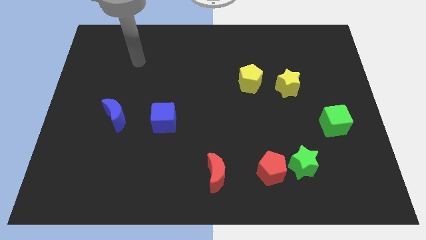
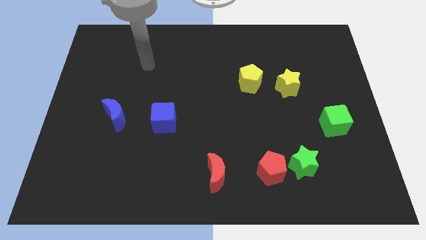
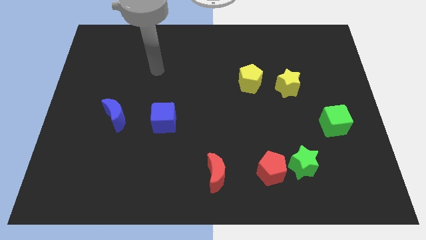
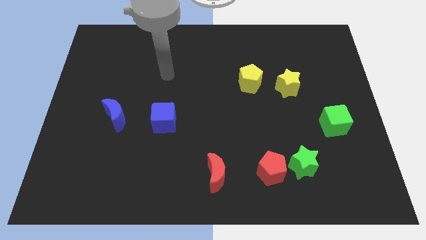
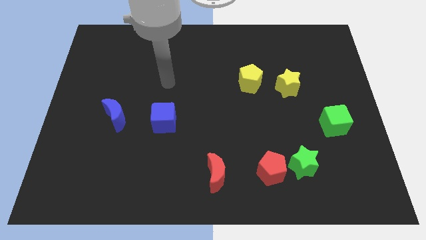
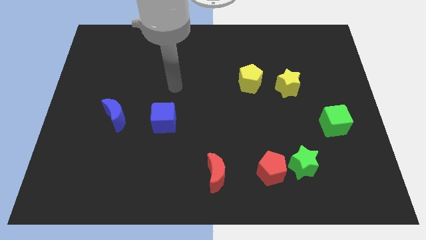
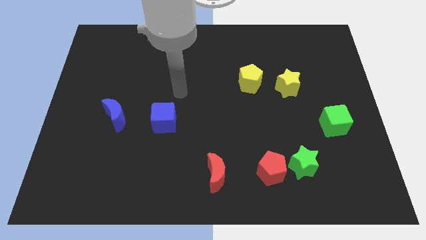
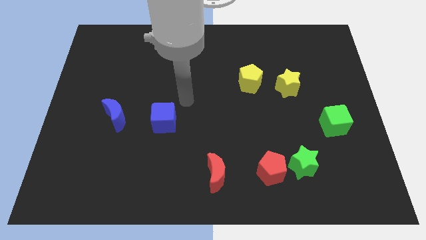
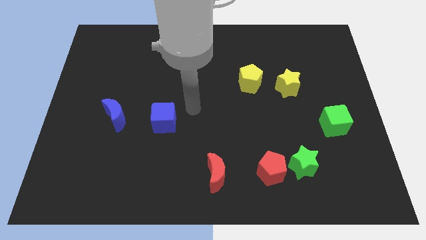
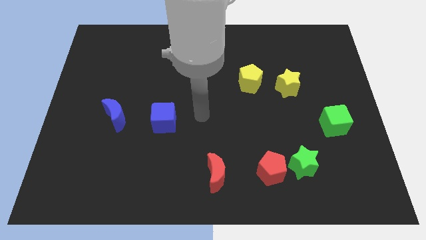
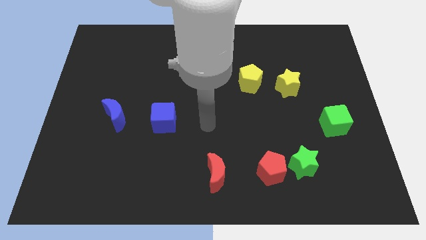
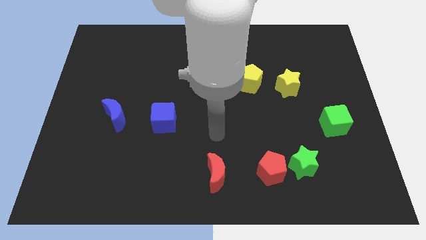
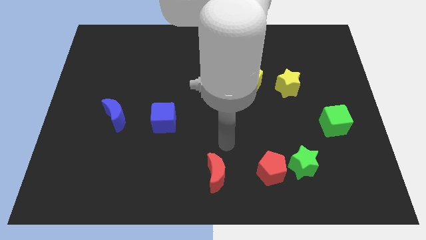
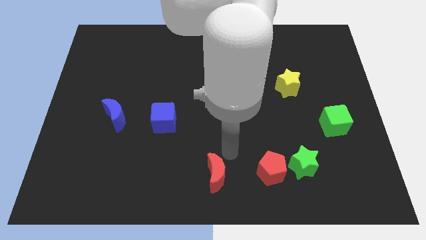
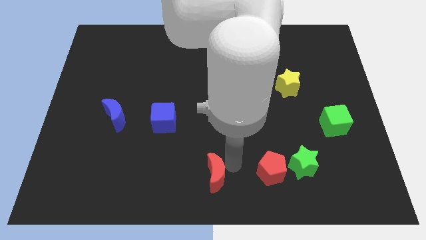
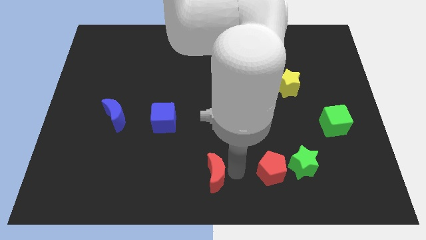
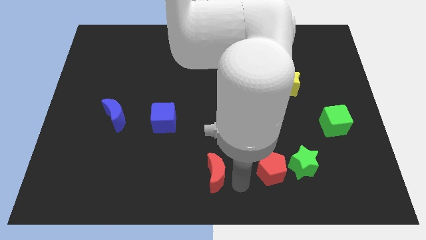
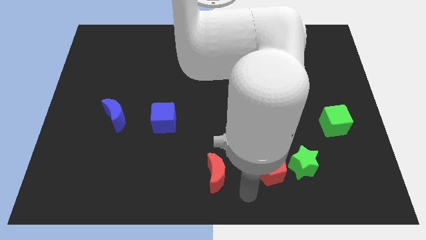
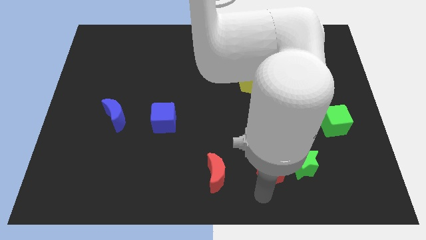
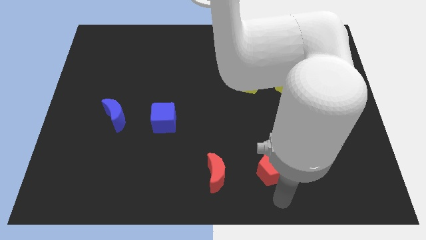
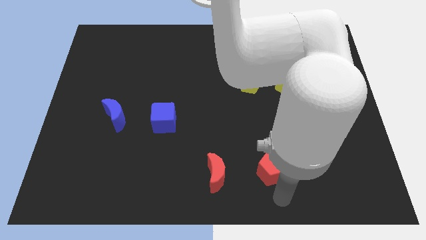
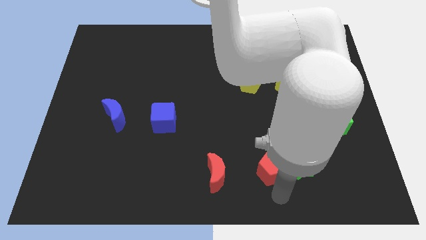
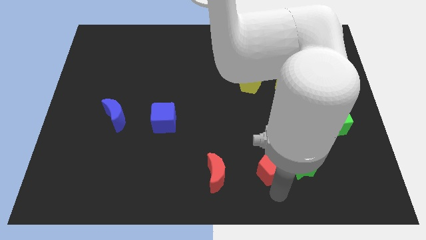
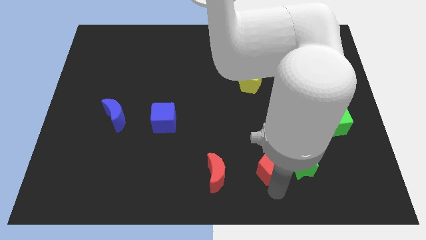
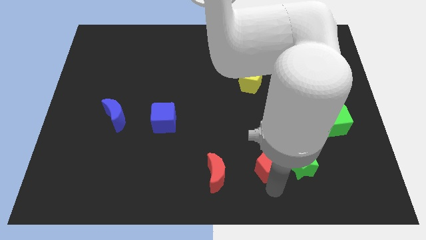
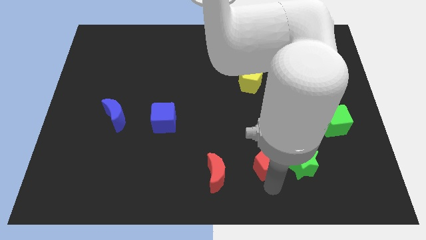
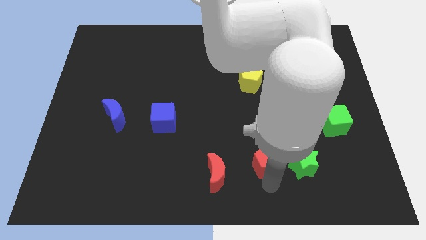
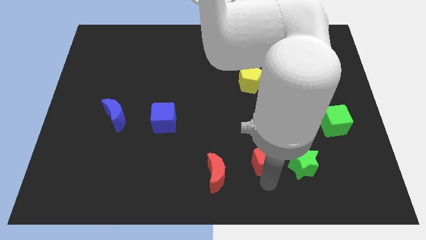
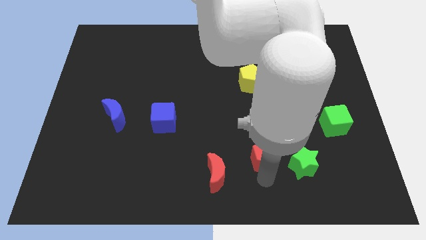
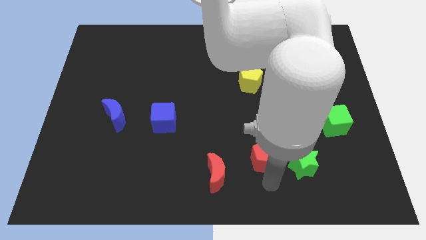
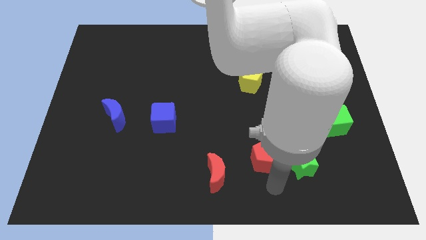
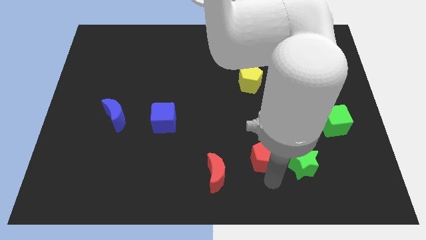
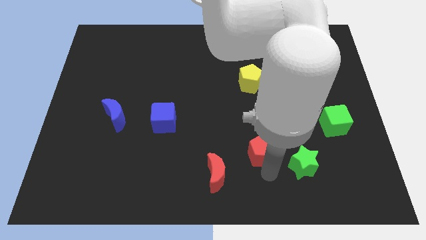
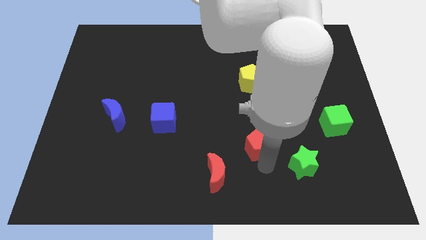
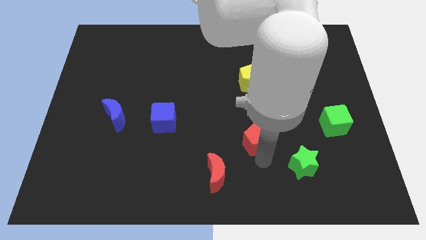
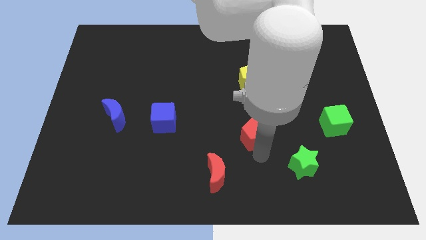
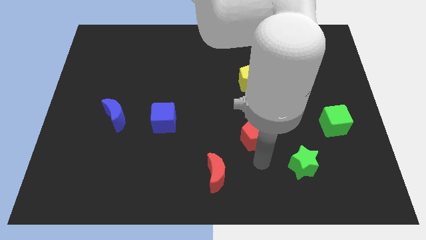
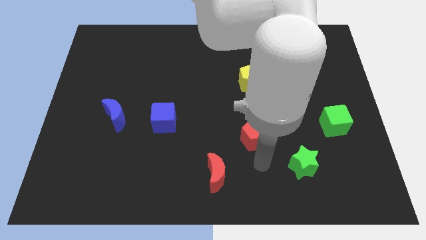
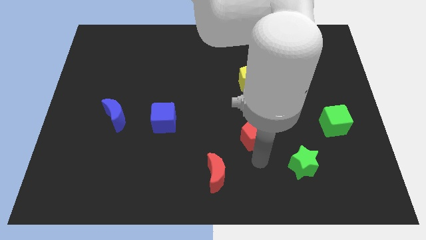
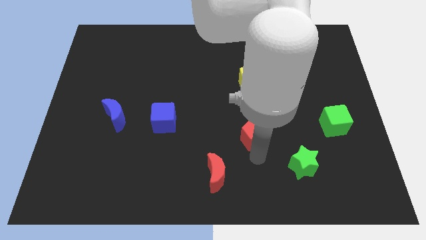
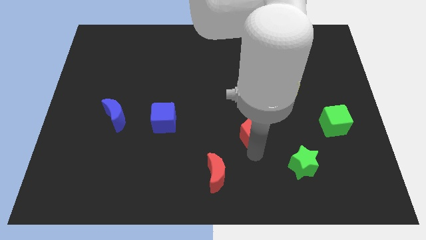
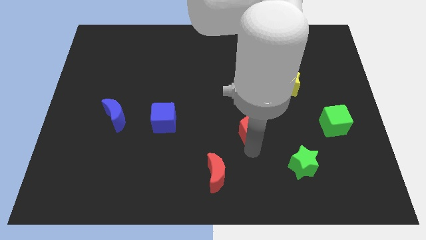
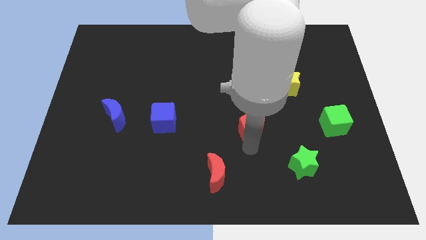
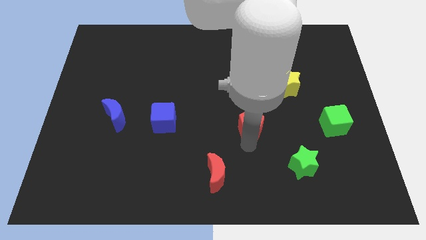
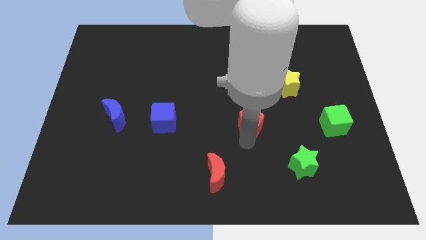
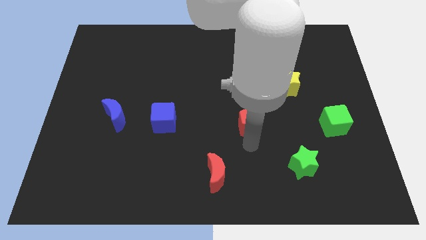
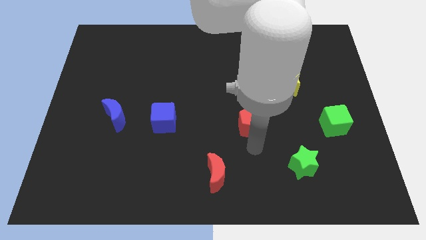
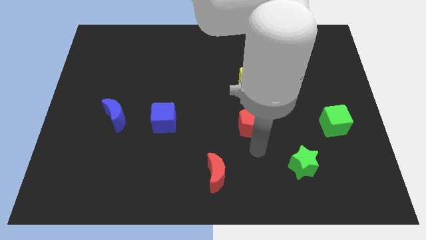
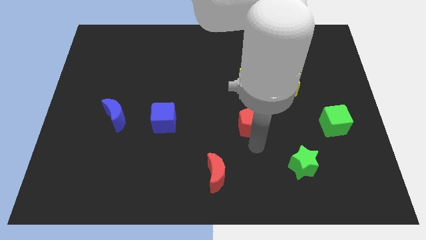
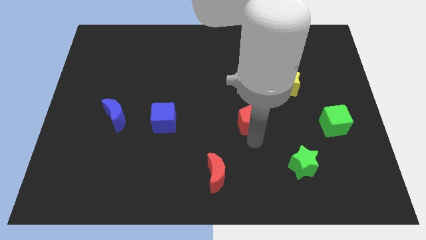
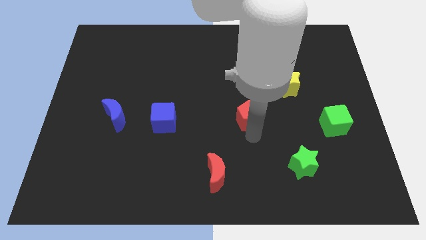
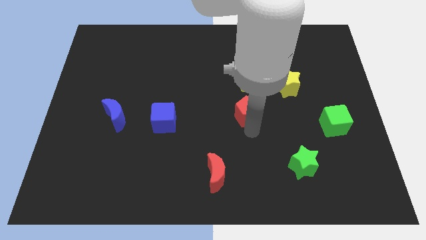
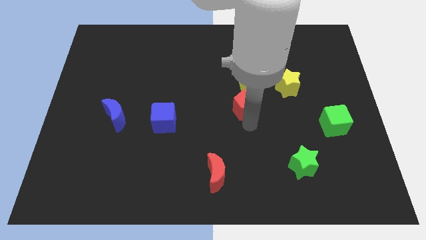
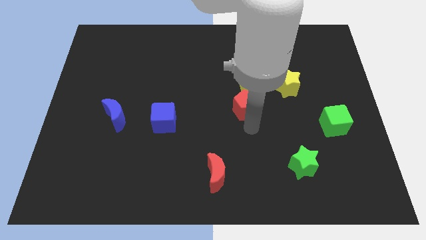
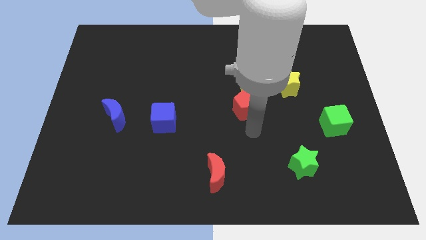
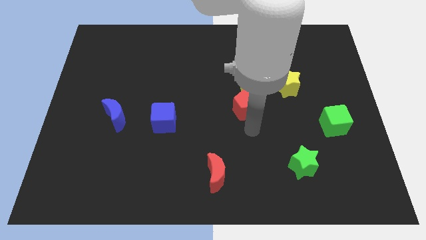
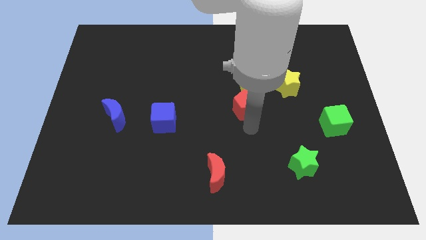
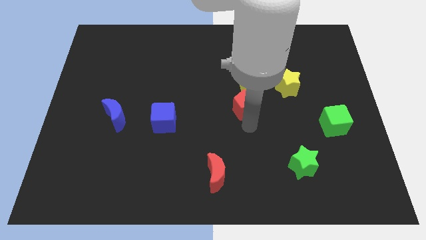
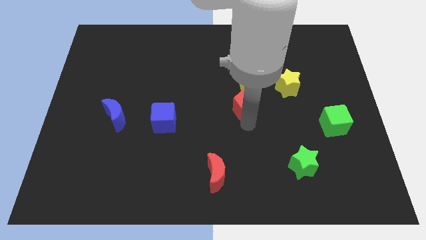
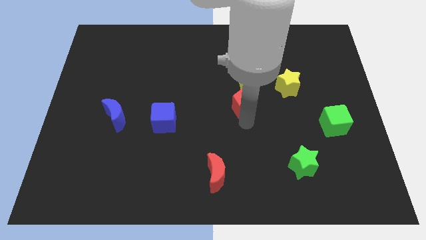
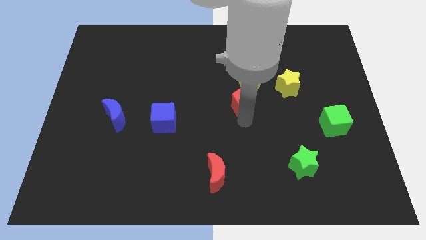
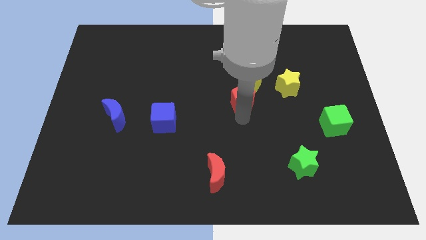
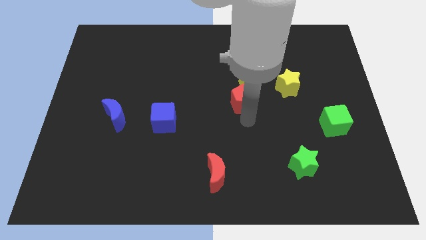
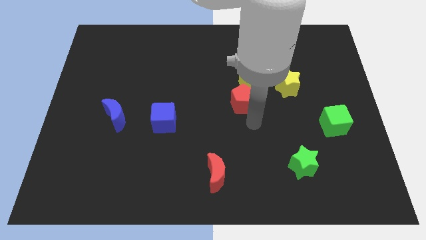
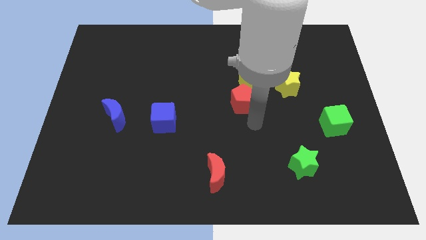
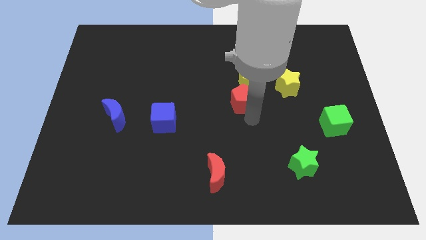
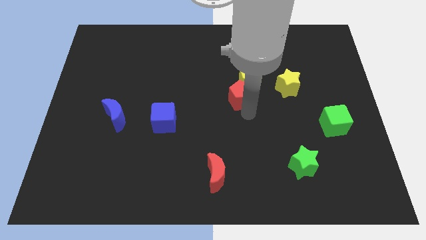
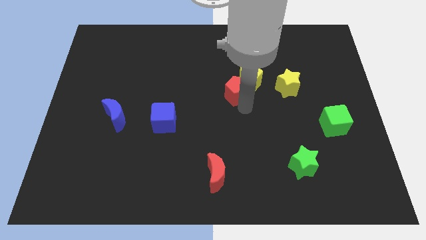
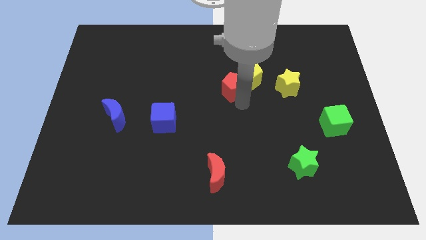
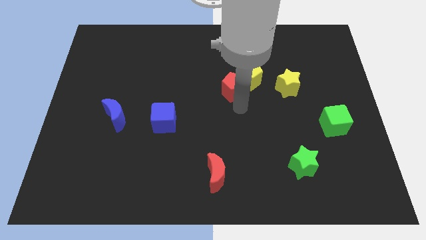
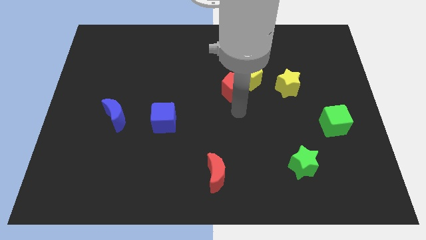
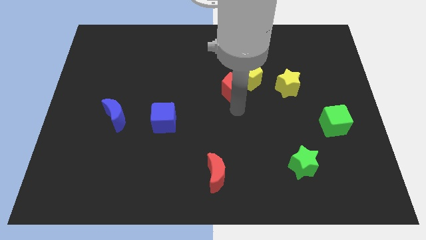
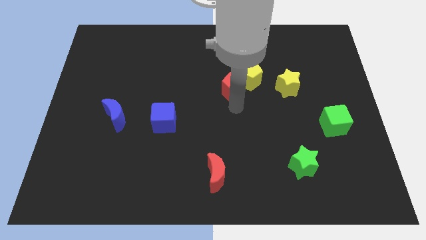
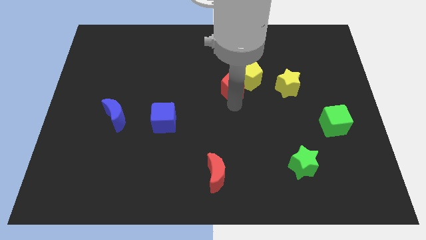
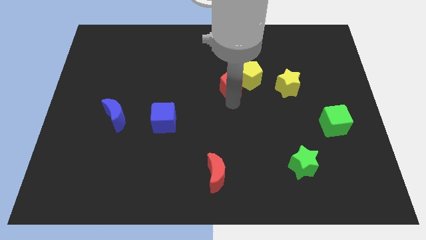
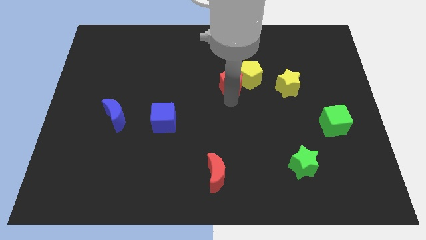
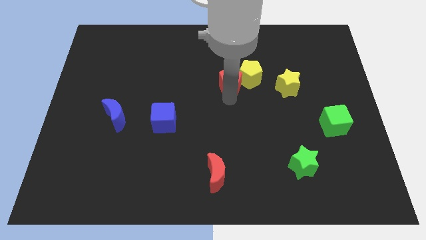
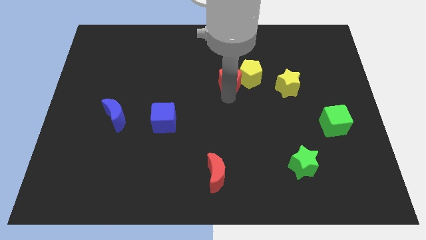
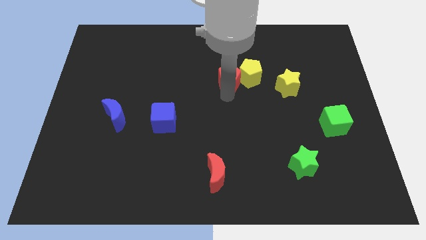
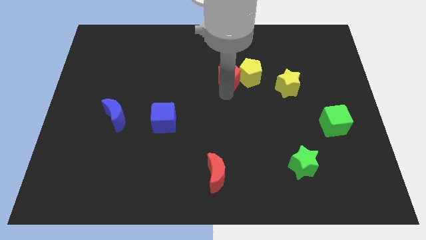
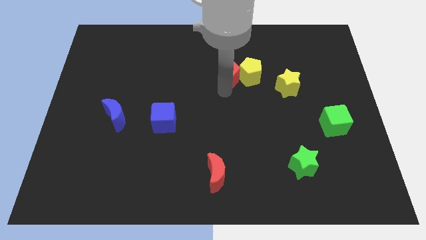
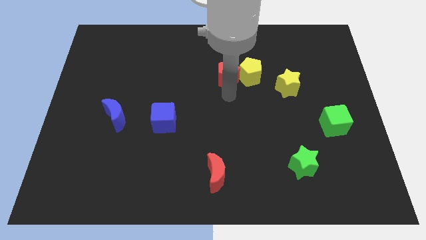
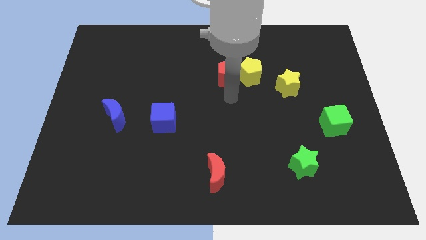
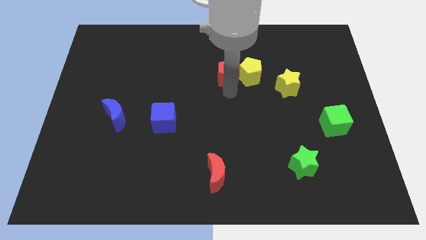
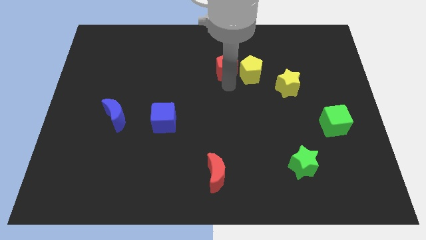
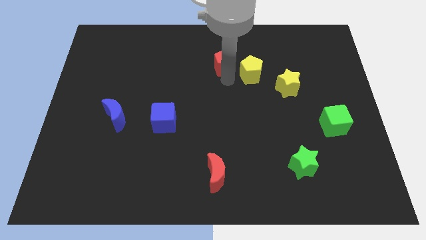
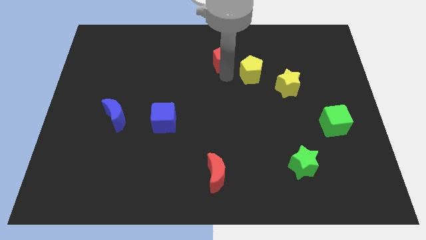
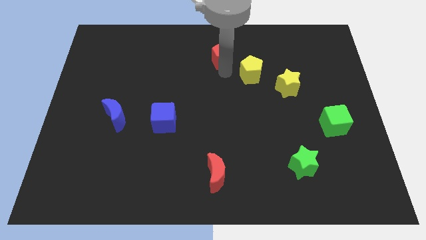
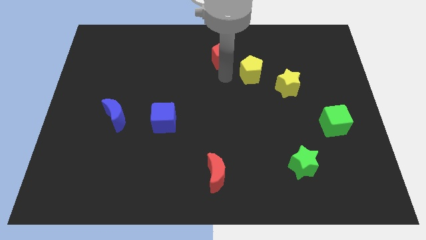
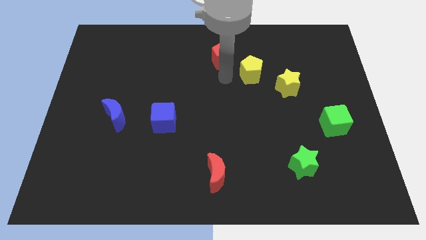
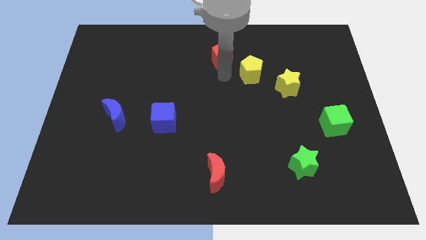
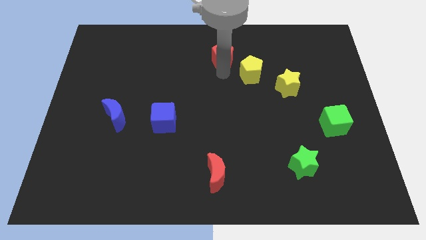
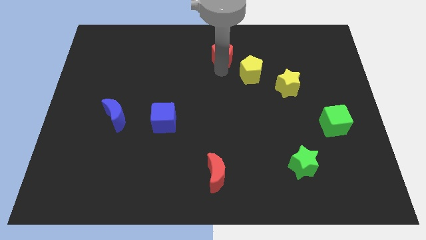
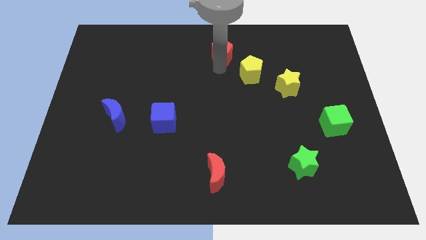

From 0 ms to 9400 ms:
move the red pentagon to the top
